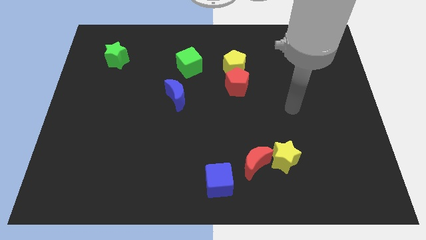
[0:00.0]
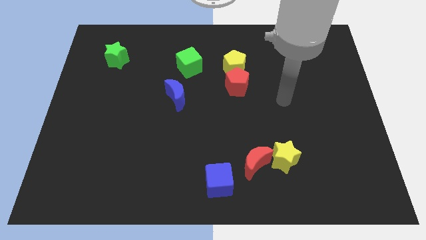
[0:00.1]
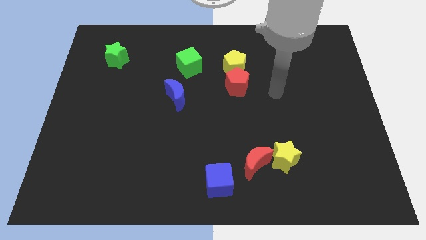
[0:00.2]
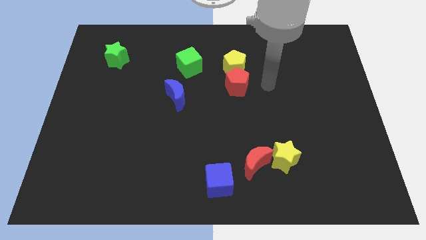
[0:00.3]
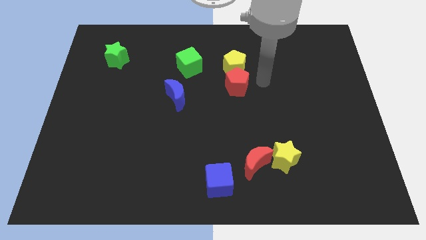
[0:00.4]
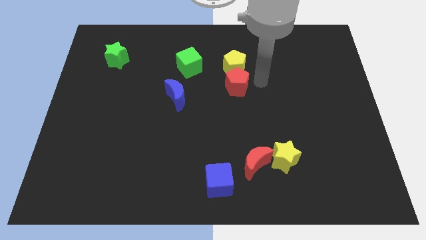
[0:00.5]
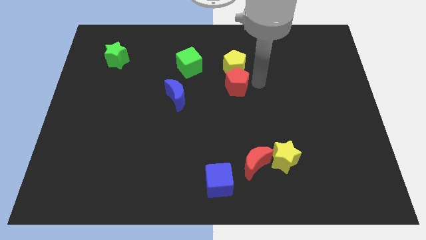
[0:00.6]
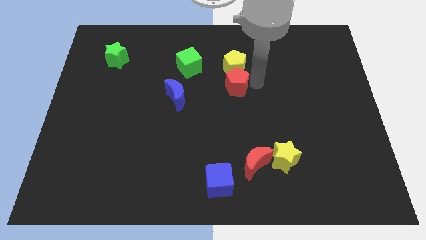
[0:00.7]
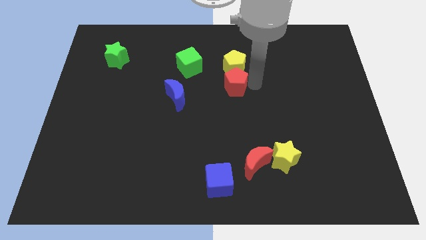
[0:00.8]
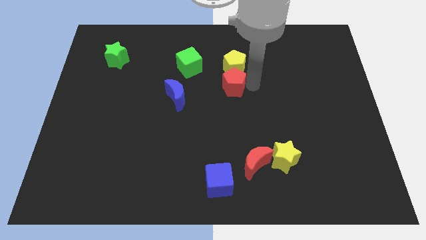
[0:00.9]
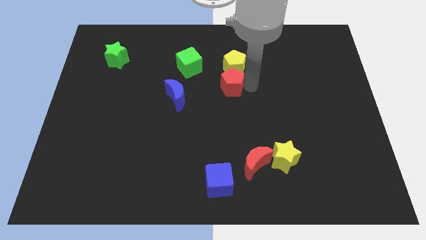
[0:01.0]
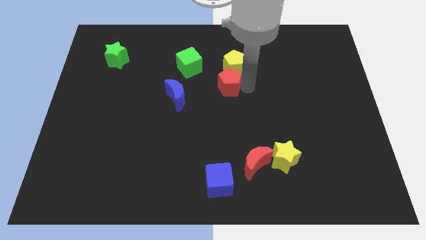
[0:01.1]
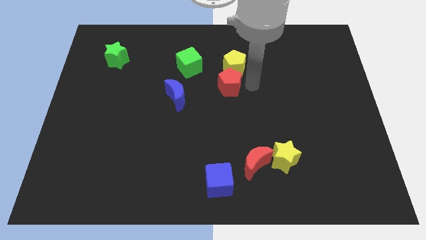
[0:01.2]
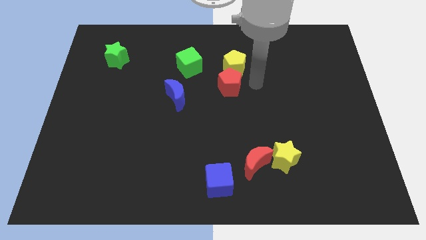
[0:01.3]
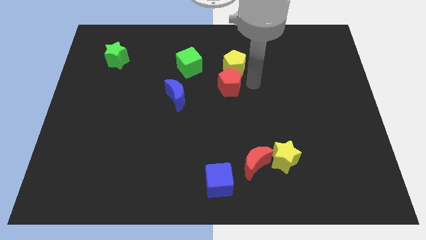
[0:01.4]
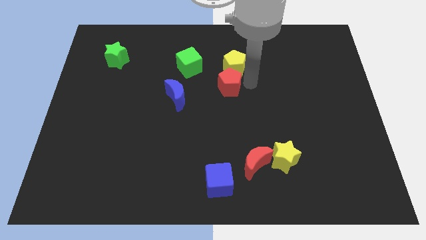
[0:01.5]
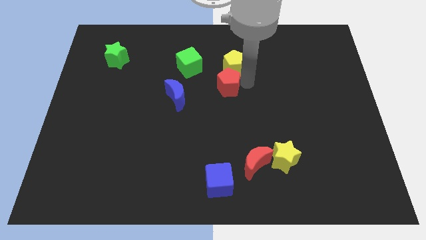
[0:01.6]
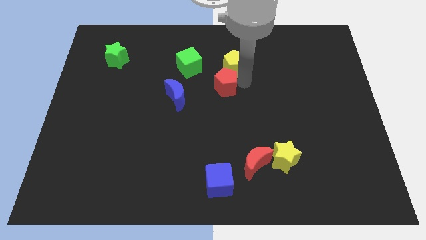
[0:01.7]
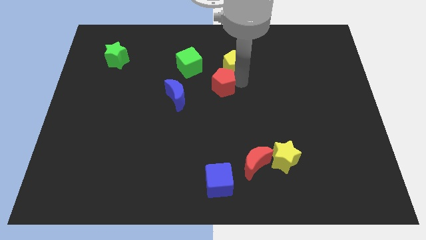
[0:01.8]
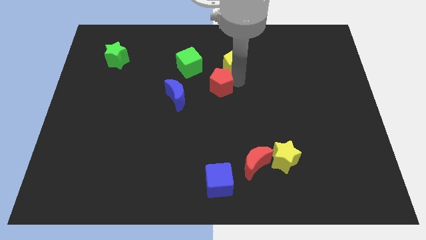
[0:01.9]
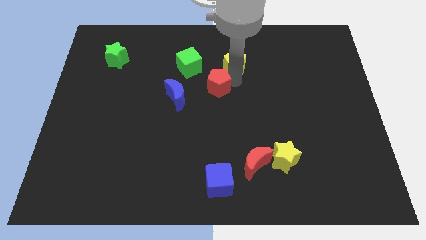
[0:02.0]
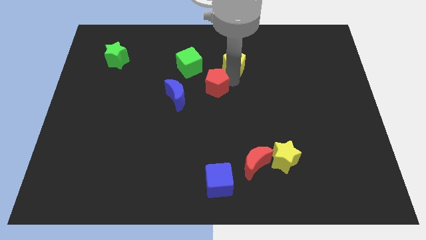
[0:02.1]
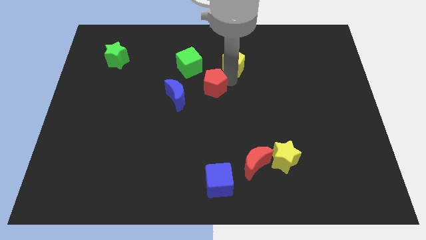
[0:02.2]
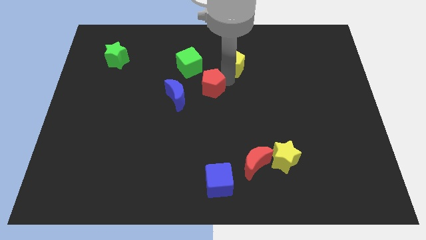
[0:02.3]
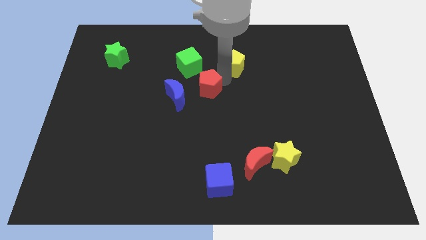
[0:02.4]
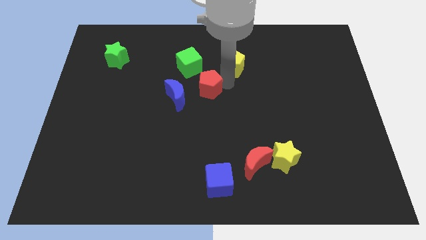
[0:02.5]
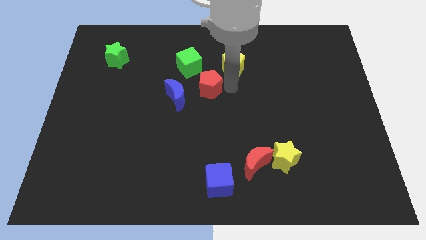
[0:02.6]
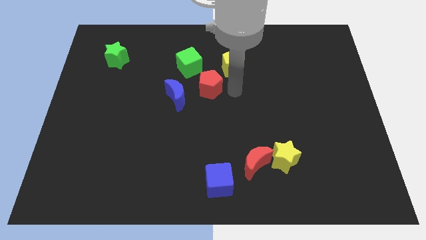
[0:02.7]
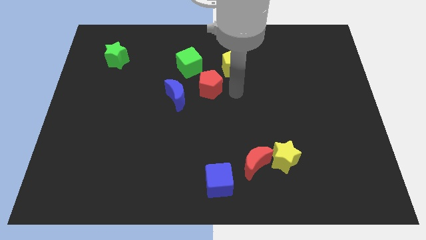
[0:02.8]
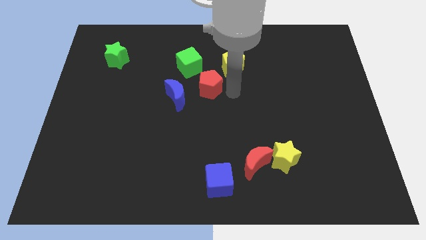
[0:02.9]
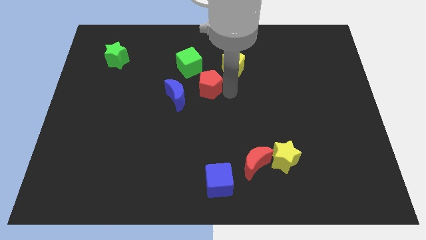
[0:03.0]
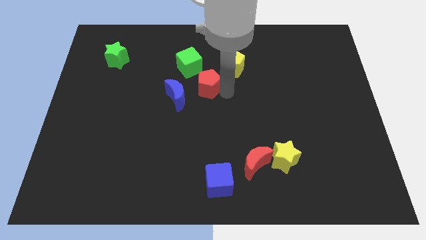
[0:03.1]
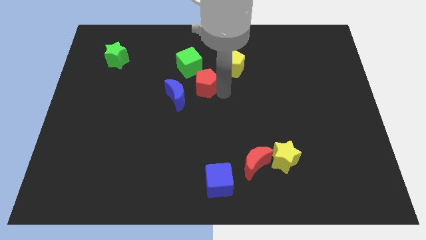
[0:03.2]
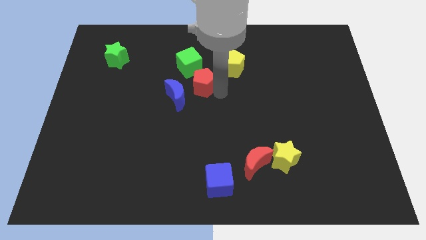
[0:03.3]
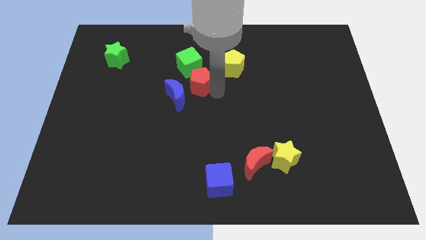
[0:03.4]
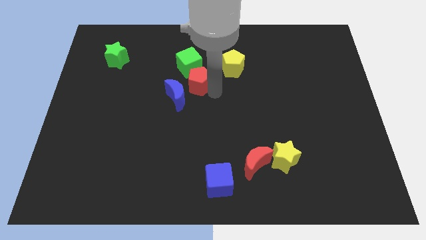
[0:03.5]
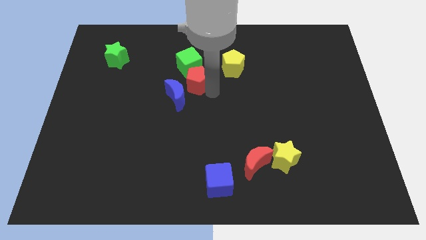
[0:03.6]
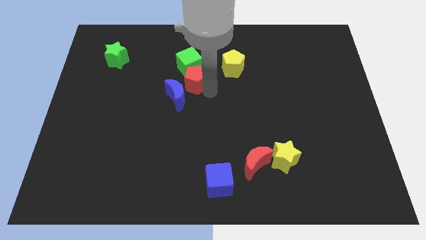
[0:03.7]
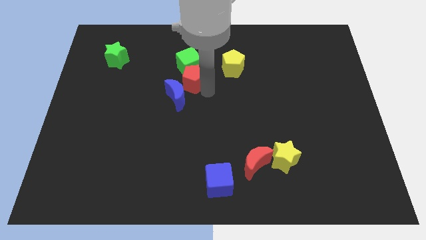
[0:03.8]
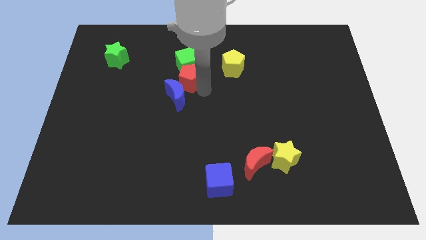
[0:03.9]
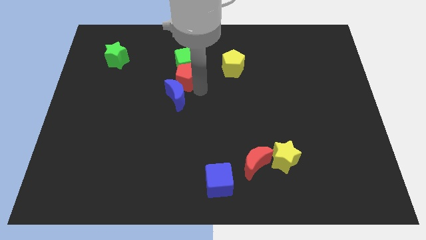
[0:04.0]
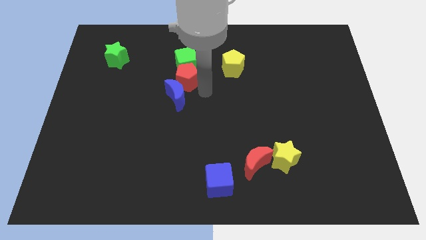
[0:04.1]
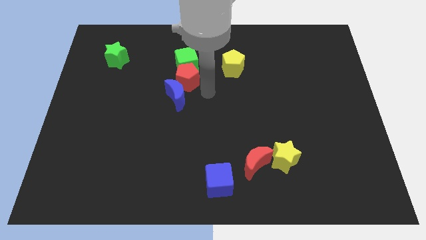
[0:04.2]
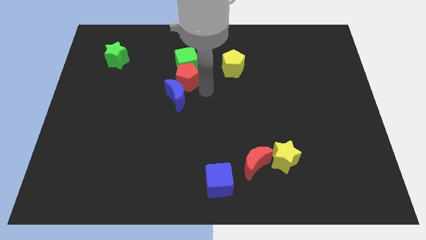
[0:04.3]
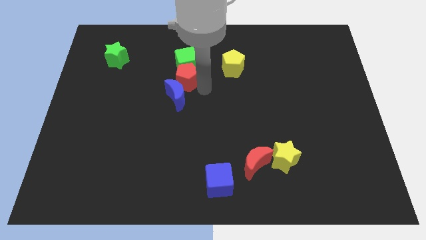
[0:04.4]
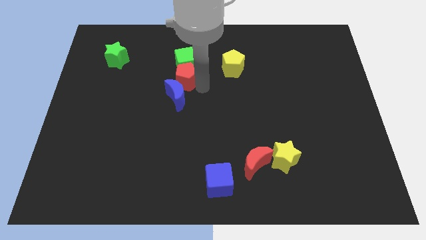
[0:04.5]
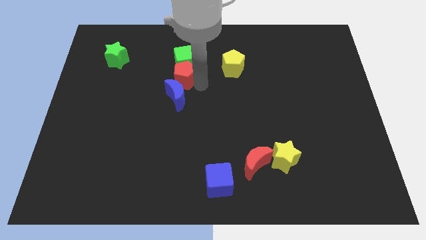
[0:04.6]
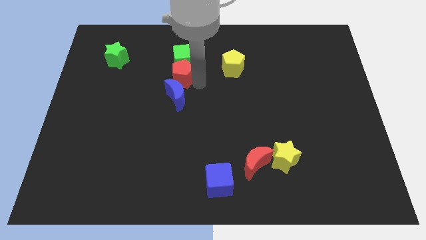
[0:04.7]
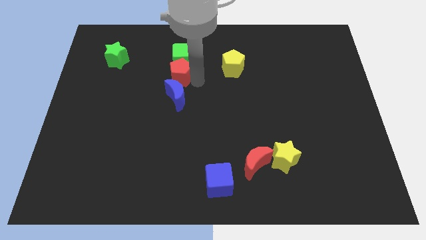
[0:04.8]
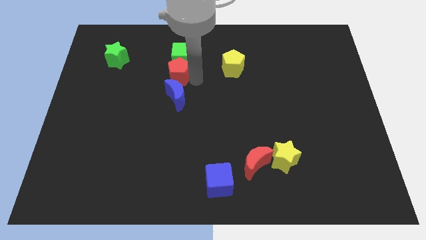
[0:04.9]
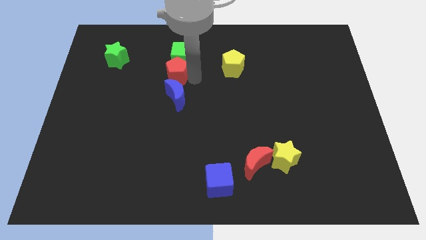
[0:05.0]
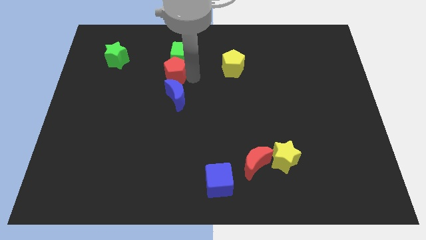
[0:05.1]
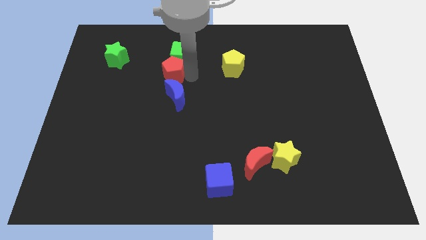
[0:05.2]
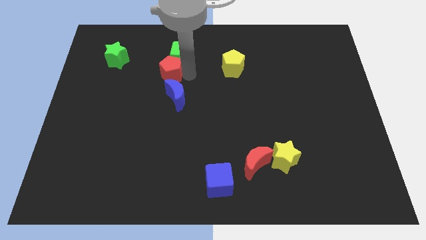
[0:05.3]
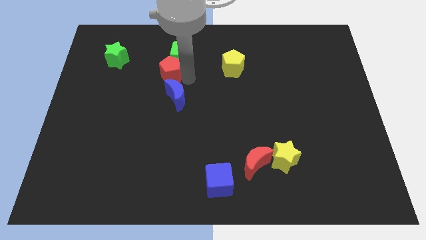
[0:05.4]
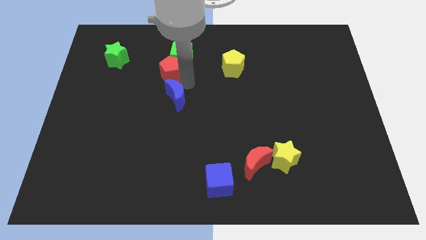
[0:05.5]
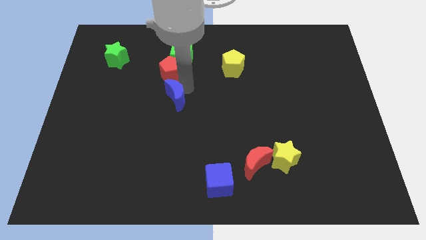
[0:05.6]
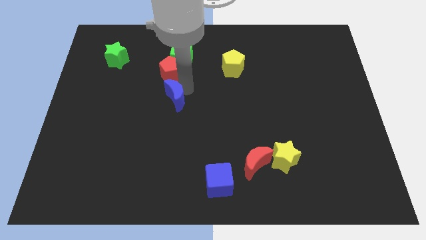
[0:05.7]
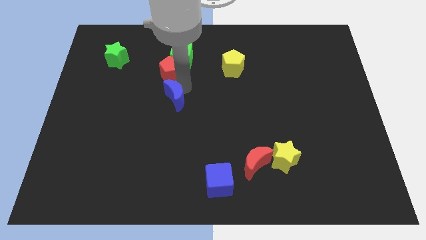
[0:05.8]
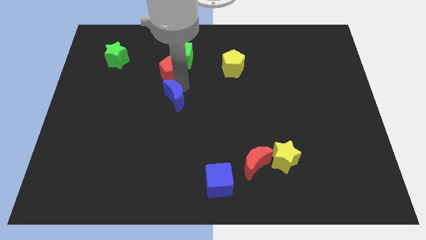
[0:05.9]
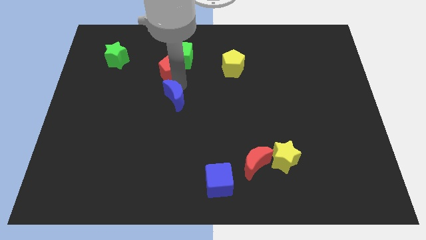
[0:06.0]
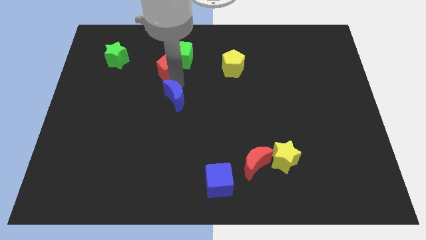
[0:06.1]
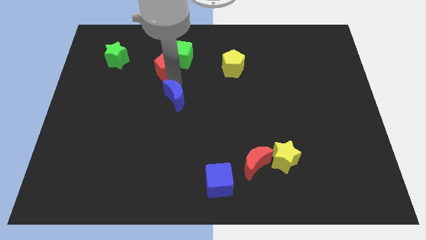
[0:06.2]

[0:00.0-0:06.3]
push the red pentagon just right of the green star

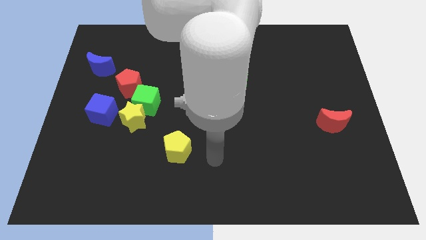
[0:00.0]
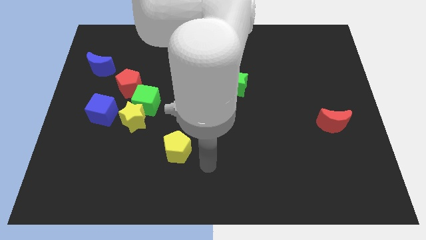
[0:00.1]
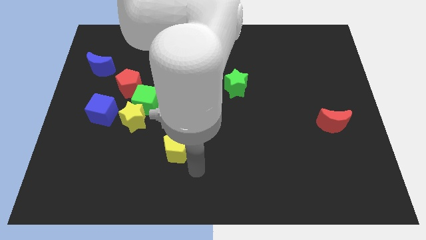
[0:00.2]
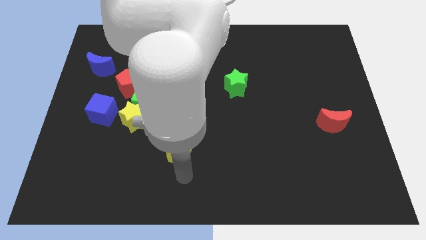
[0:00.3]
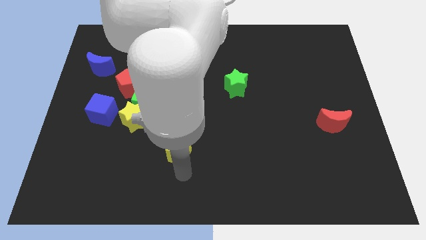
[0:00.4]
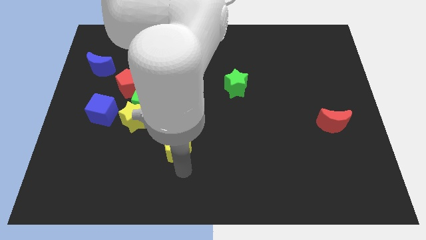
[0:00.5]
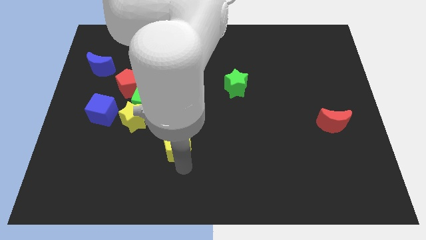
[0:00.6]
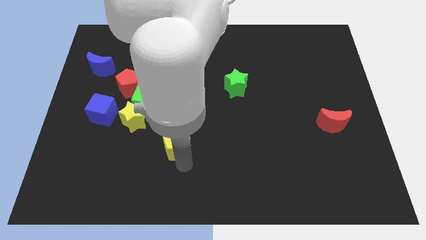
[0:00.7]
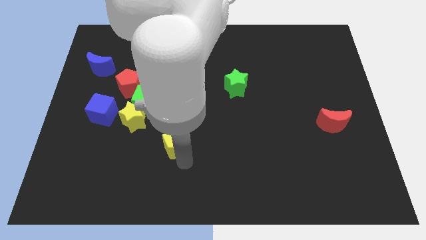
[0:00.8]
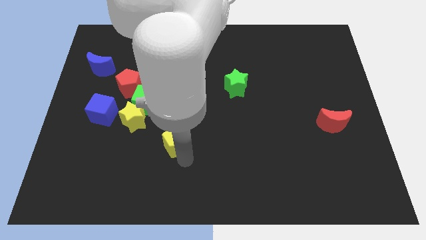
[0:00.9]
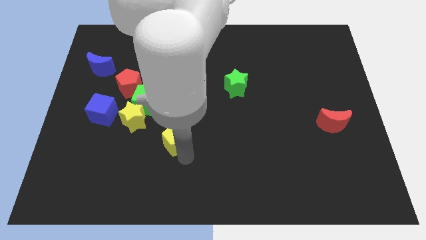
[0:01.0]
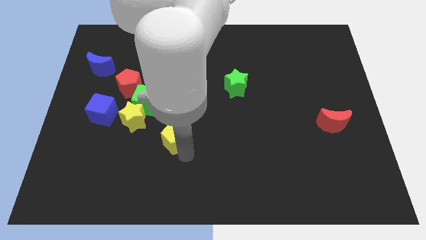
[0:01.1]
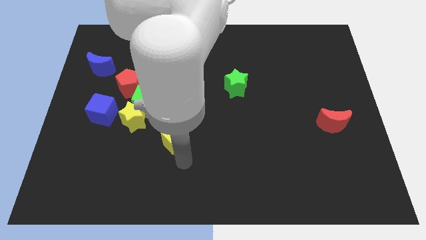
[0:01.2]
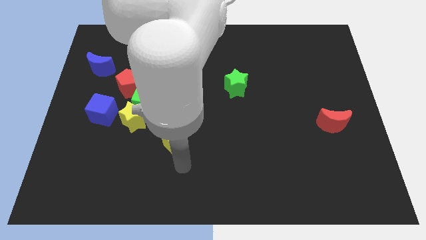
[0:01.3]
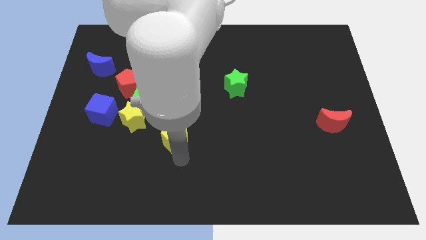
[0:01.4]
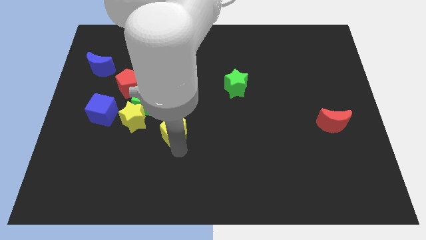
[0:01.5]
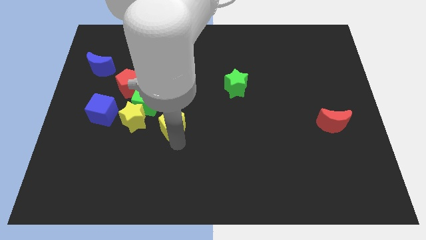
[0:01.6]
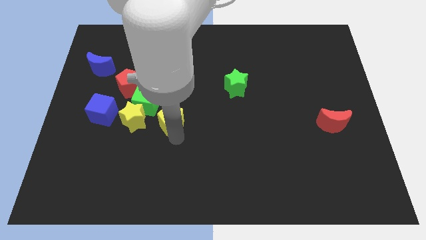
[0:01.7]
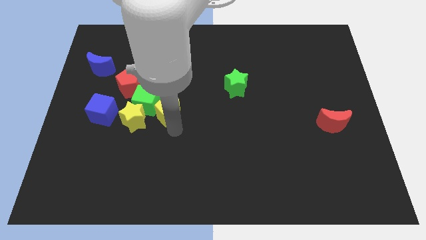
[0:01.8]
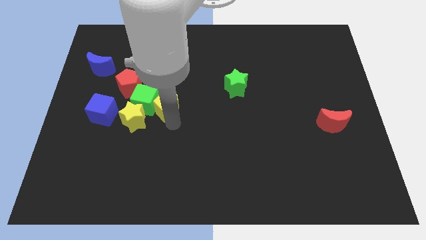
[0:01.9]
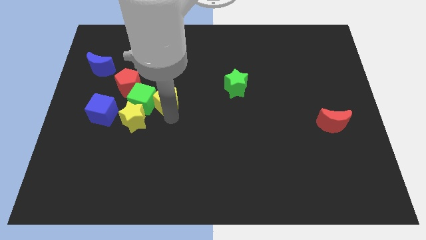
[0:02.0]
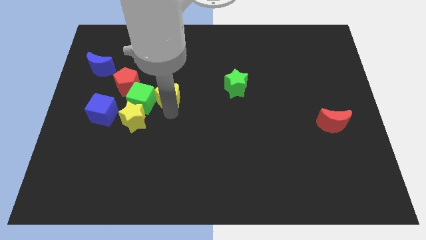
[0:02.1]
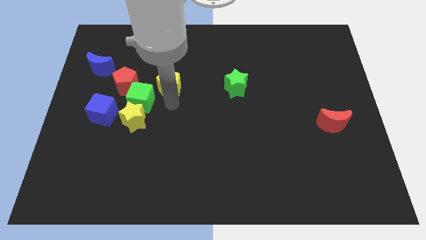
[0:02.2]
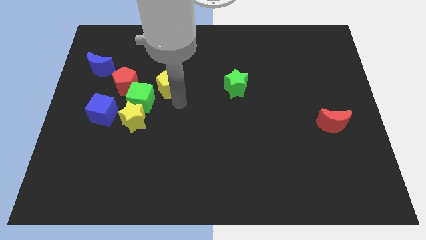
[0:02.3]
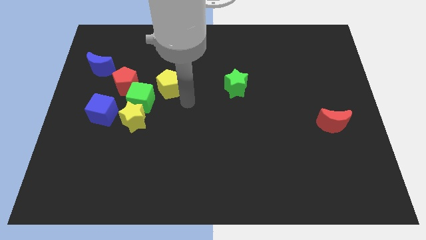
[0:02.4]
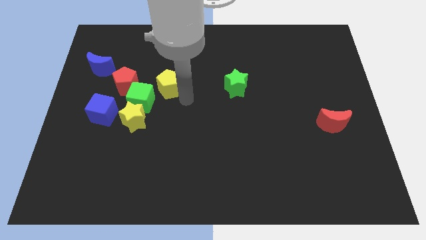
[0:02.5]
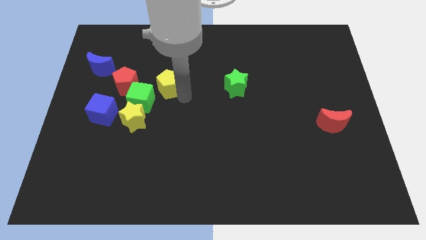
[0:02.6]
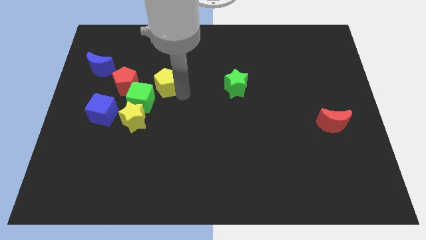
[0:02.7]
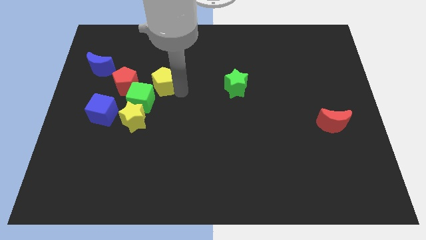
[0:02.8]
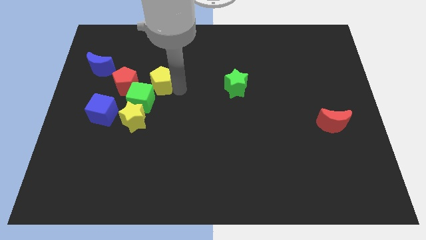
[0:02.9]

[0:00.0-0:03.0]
push the yellow pentagon above the green cube
